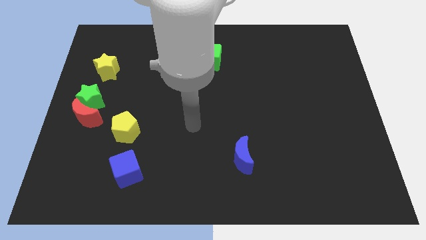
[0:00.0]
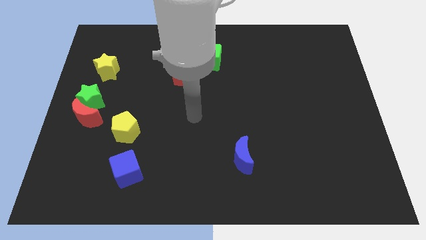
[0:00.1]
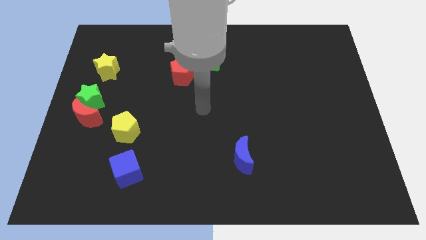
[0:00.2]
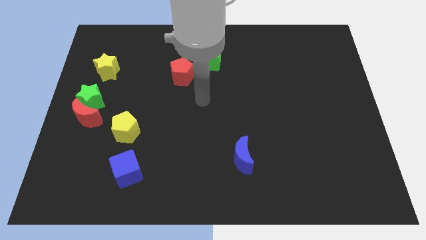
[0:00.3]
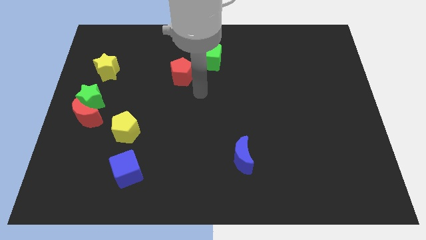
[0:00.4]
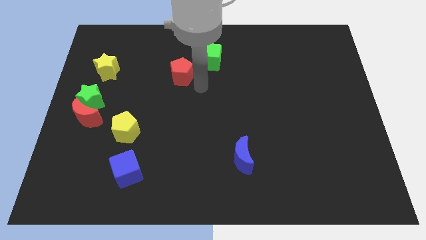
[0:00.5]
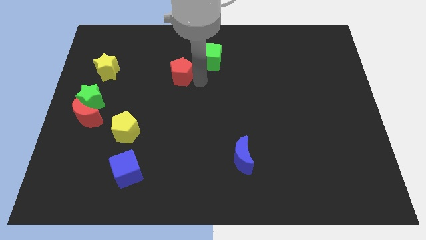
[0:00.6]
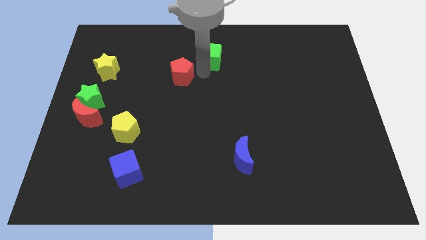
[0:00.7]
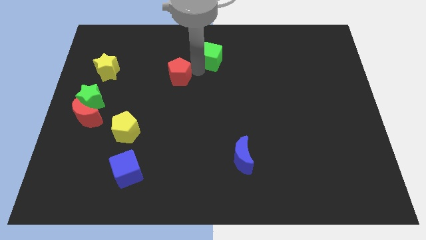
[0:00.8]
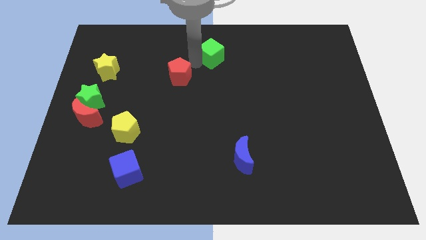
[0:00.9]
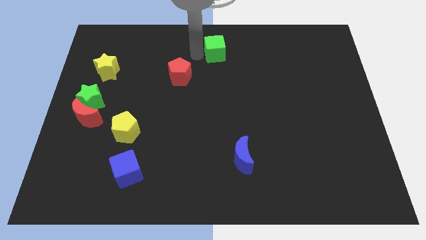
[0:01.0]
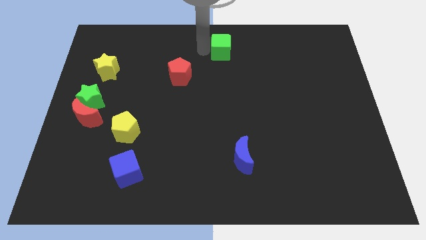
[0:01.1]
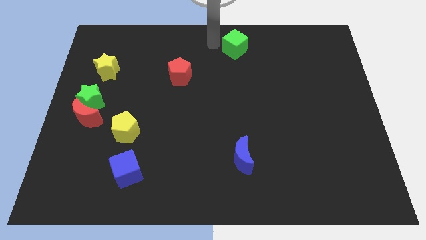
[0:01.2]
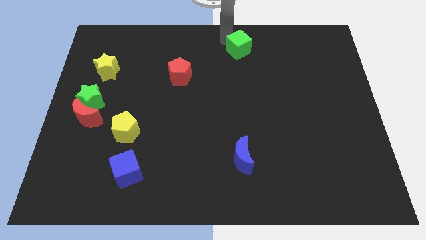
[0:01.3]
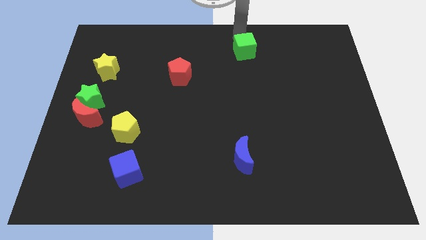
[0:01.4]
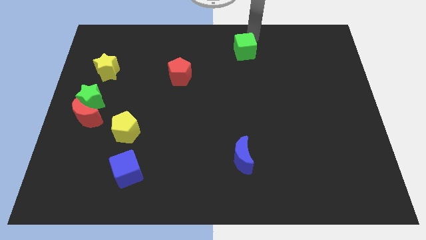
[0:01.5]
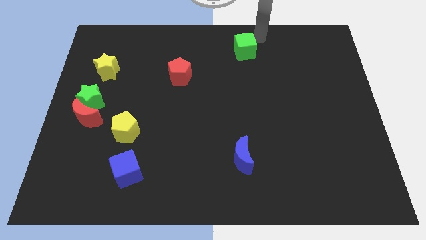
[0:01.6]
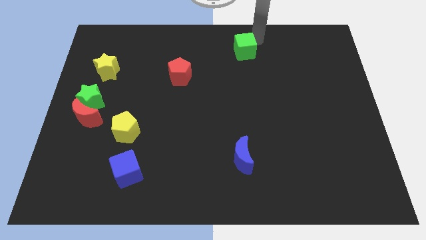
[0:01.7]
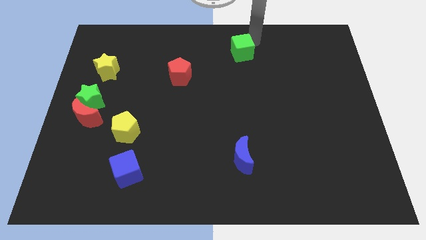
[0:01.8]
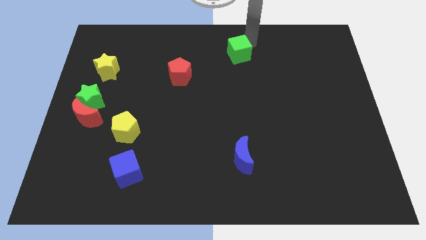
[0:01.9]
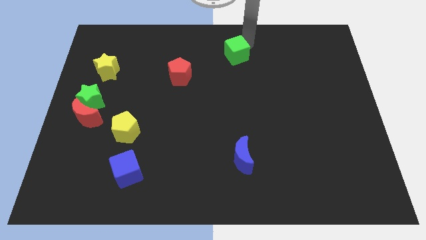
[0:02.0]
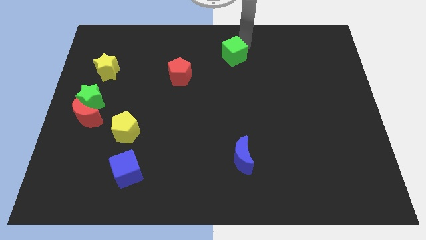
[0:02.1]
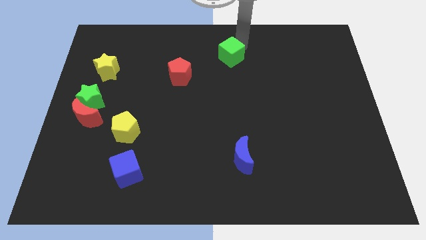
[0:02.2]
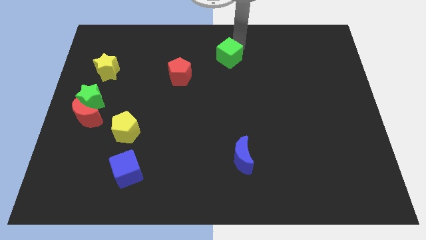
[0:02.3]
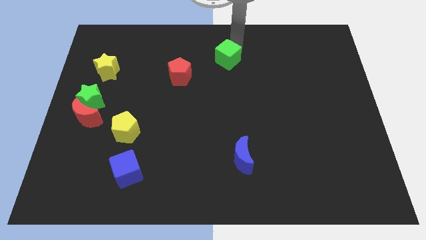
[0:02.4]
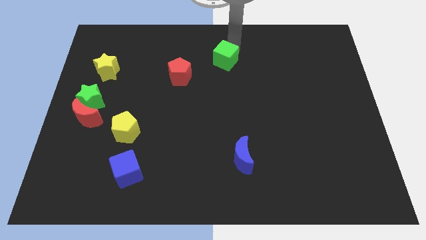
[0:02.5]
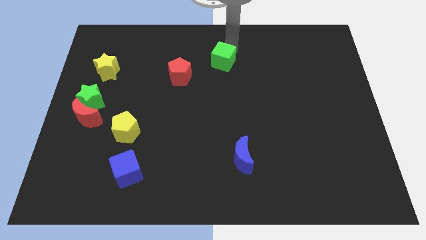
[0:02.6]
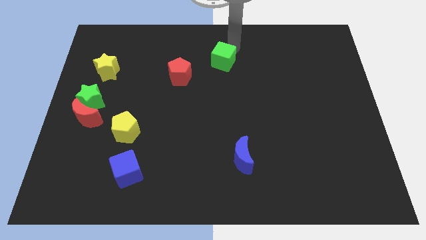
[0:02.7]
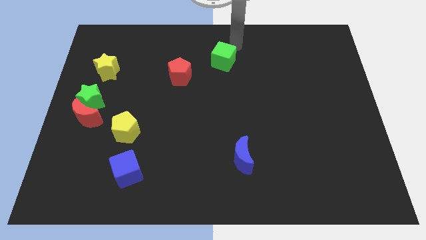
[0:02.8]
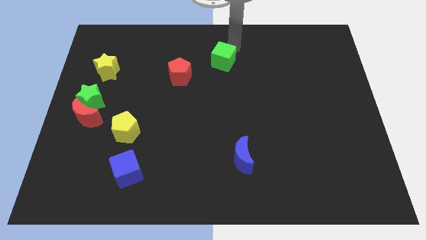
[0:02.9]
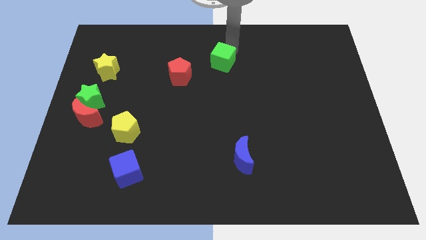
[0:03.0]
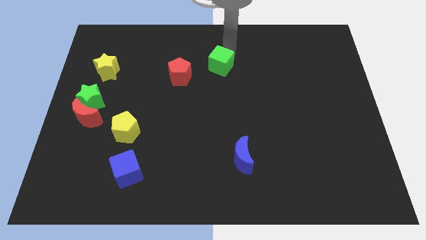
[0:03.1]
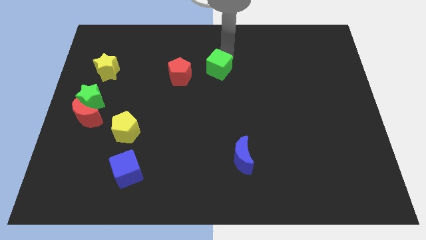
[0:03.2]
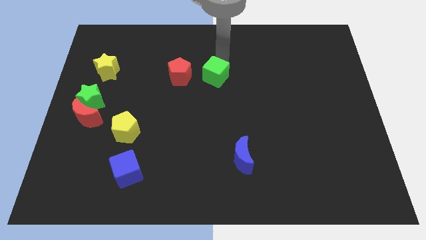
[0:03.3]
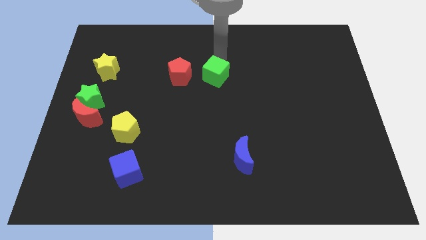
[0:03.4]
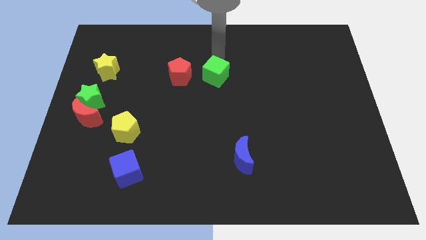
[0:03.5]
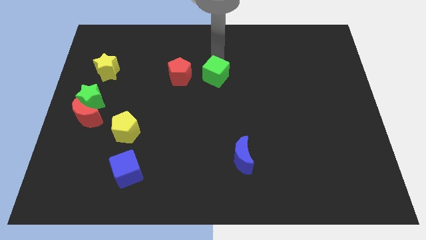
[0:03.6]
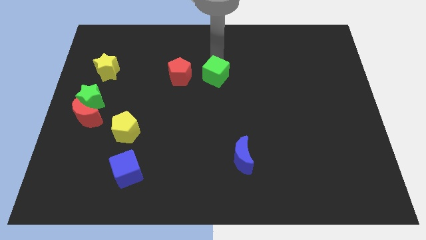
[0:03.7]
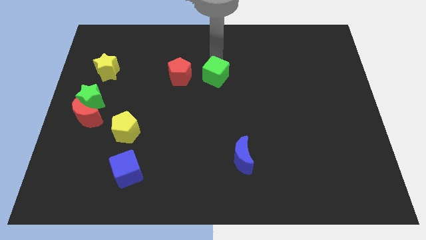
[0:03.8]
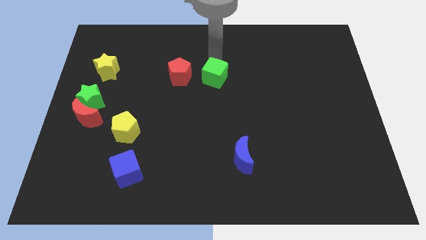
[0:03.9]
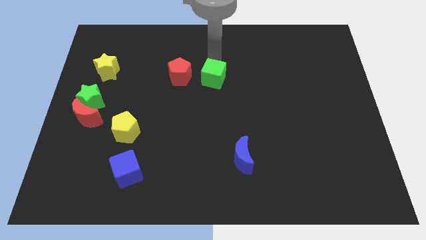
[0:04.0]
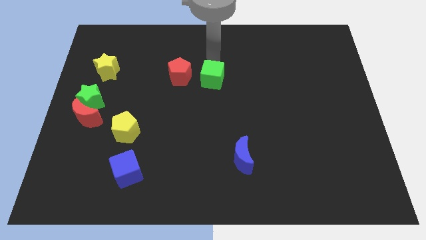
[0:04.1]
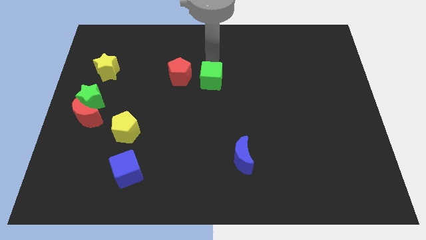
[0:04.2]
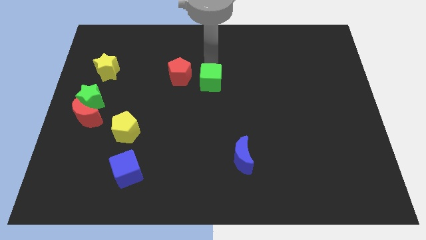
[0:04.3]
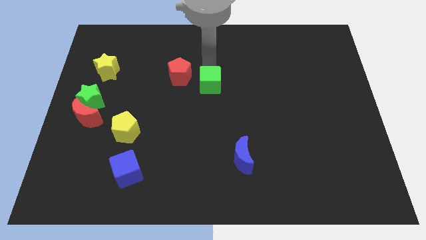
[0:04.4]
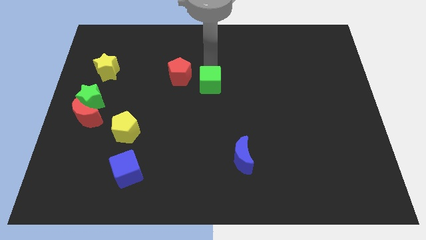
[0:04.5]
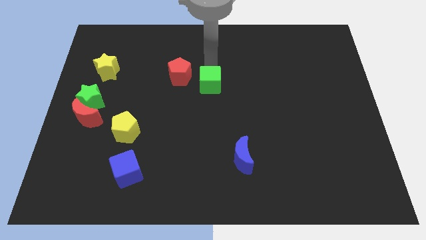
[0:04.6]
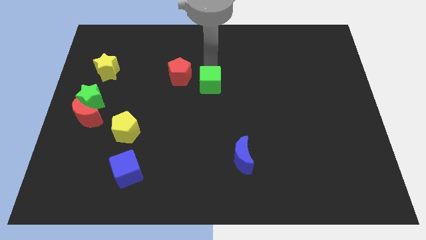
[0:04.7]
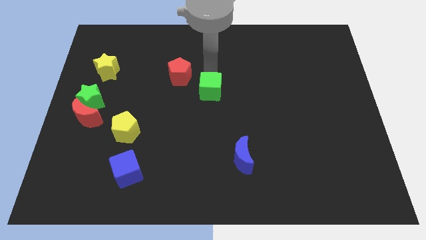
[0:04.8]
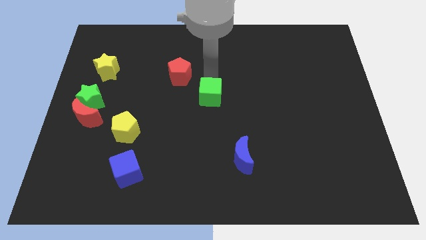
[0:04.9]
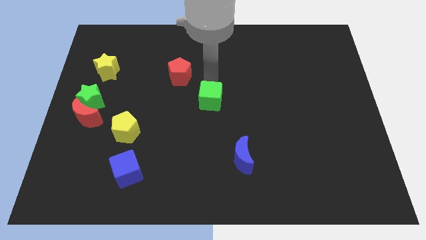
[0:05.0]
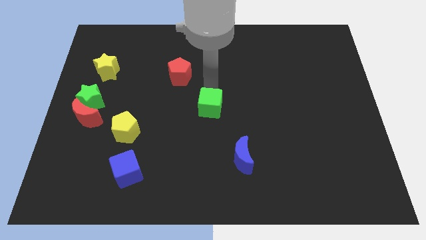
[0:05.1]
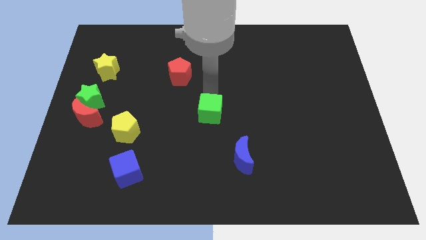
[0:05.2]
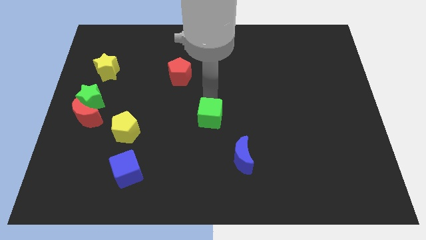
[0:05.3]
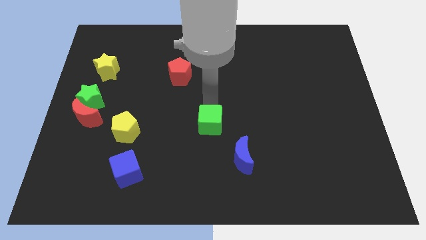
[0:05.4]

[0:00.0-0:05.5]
slide the green cube down

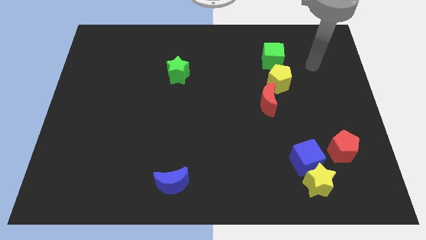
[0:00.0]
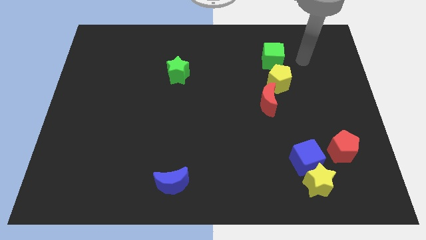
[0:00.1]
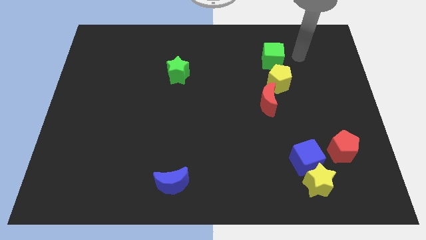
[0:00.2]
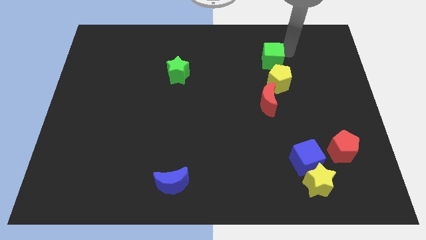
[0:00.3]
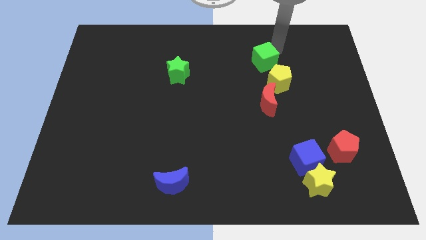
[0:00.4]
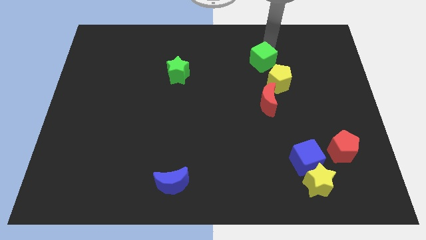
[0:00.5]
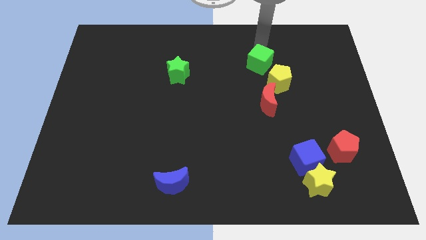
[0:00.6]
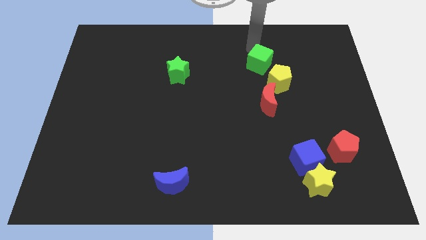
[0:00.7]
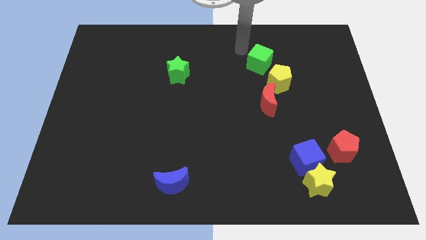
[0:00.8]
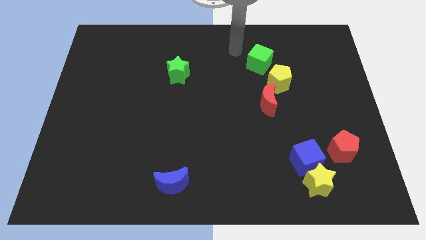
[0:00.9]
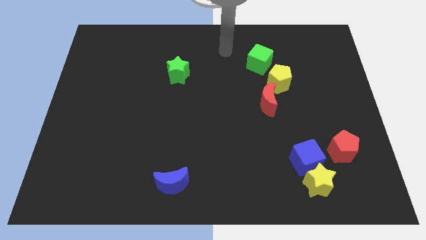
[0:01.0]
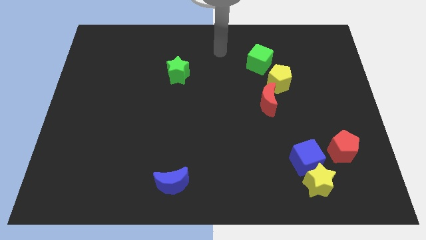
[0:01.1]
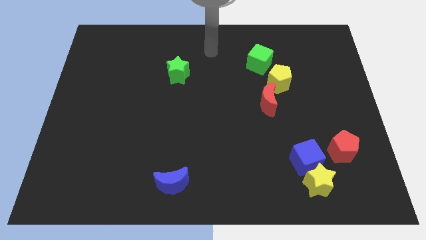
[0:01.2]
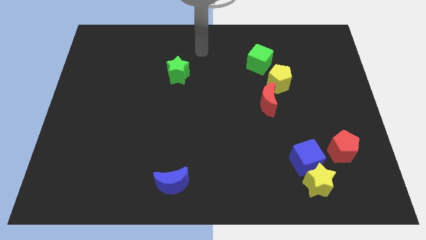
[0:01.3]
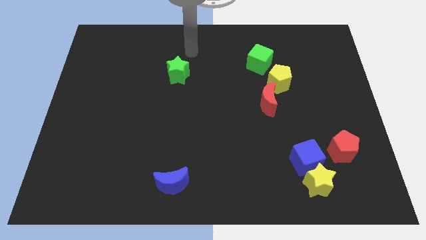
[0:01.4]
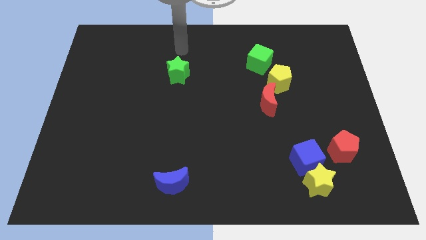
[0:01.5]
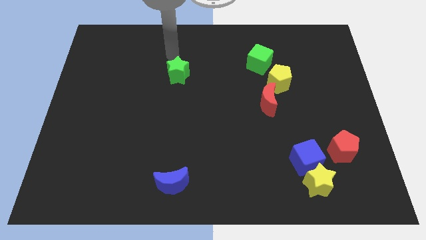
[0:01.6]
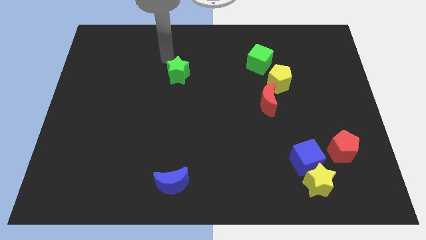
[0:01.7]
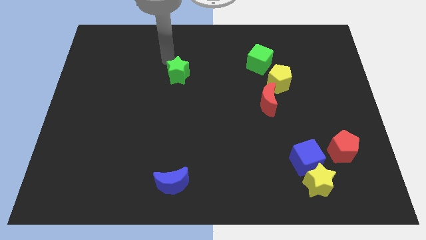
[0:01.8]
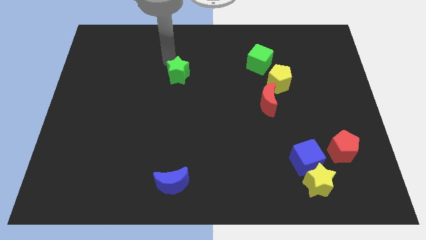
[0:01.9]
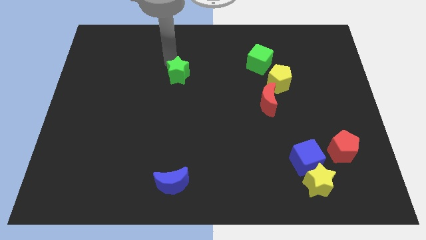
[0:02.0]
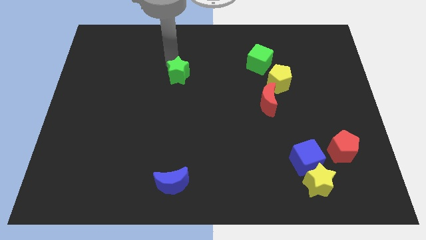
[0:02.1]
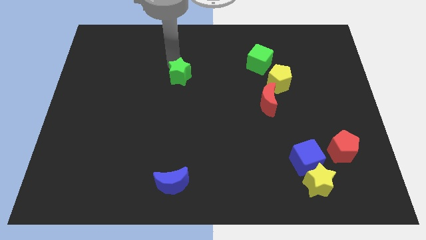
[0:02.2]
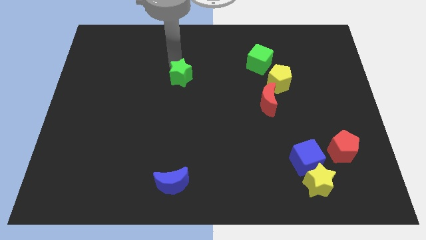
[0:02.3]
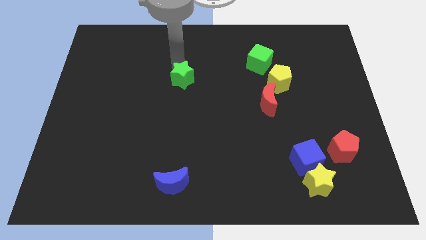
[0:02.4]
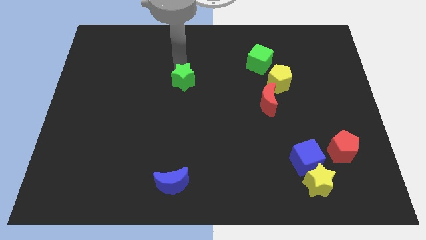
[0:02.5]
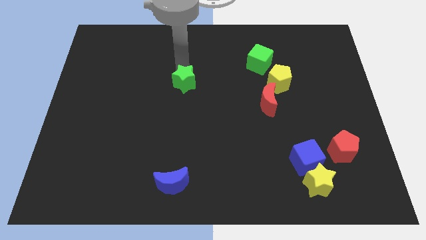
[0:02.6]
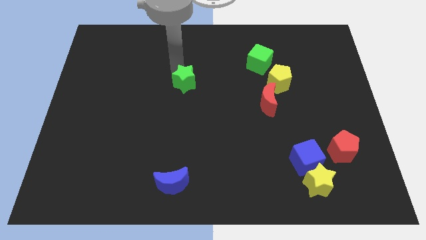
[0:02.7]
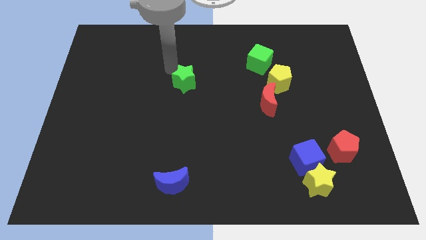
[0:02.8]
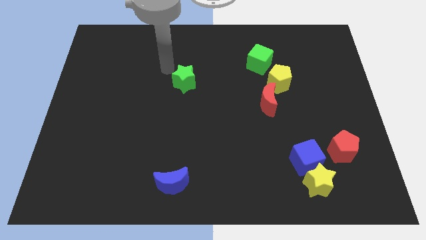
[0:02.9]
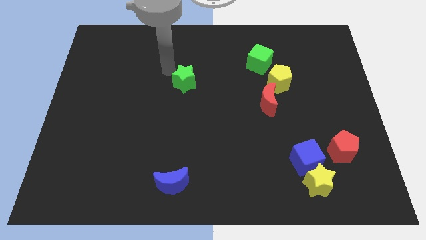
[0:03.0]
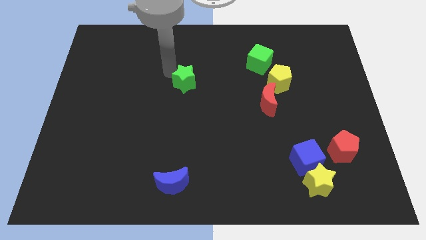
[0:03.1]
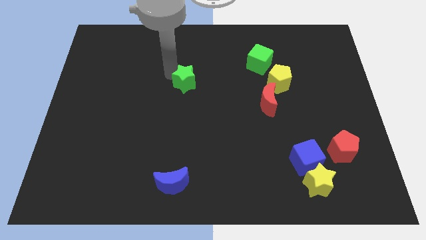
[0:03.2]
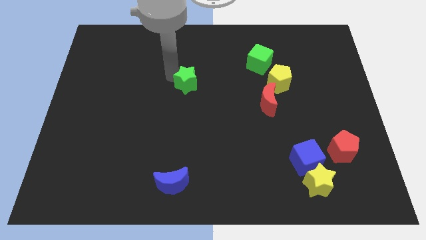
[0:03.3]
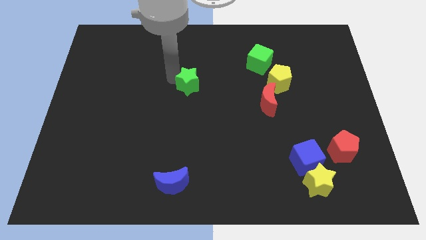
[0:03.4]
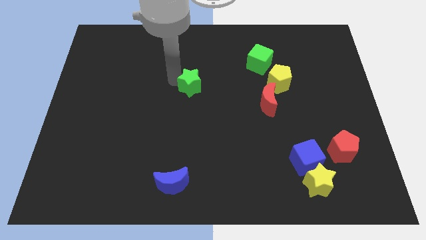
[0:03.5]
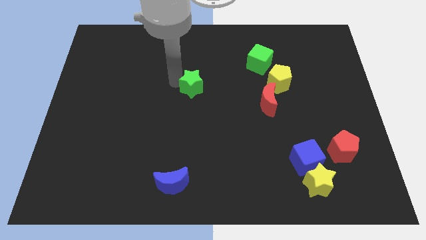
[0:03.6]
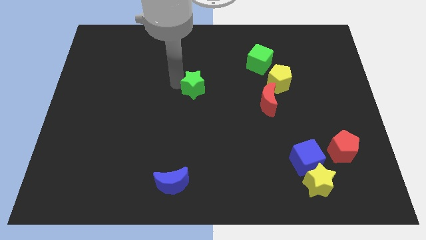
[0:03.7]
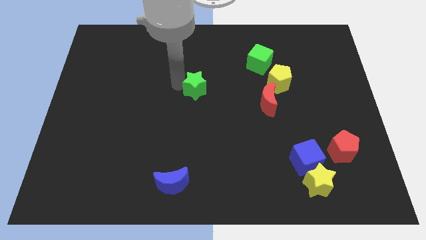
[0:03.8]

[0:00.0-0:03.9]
move the green star downwards and to the right slightly
